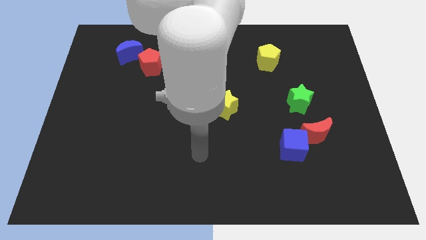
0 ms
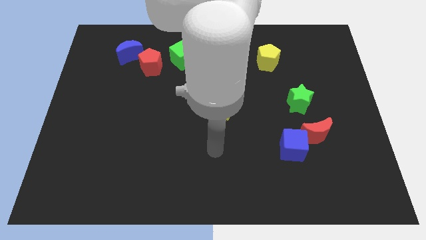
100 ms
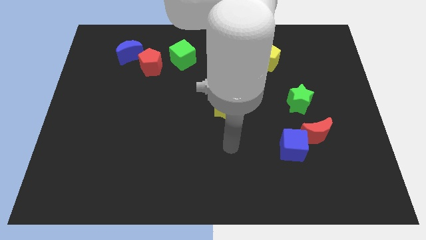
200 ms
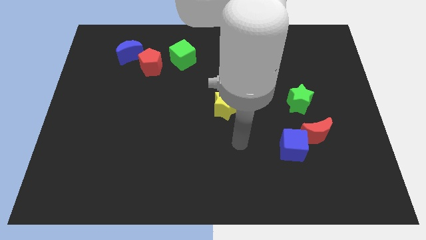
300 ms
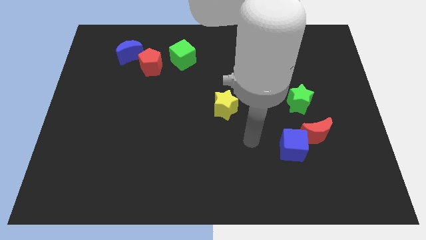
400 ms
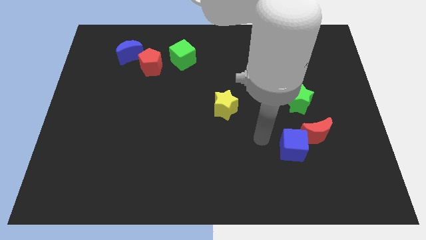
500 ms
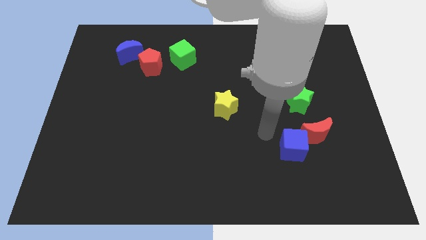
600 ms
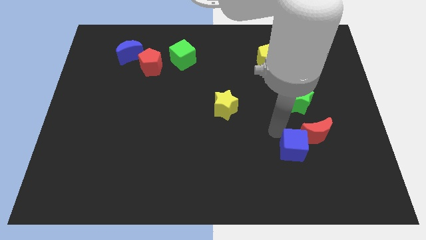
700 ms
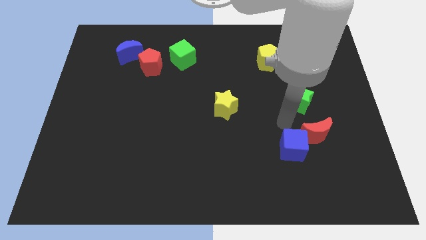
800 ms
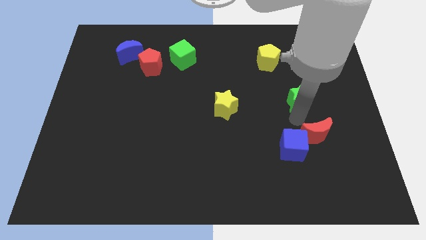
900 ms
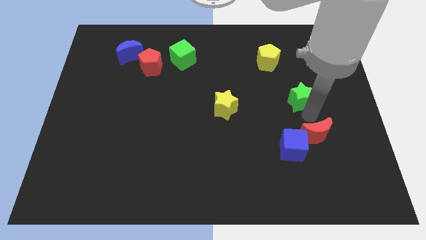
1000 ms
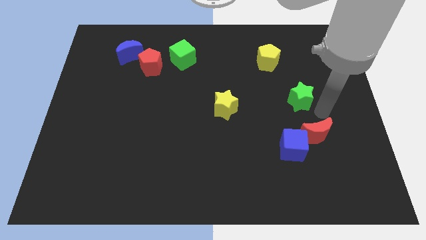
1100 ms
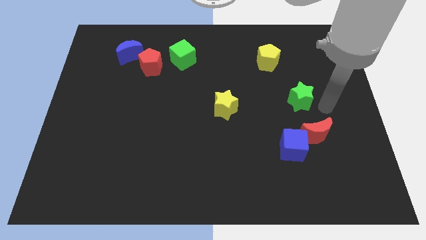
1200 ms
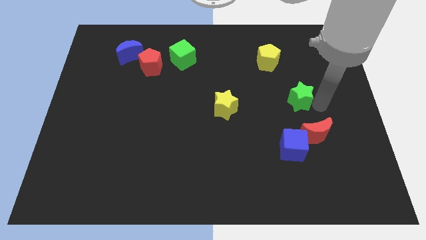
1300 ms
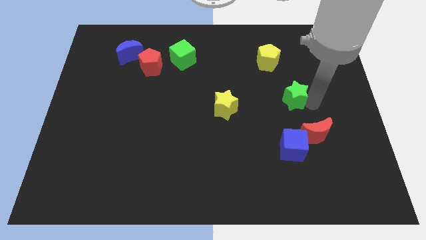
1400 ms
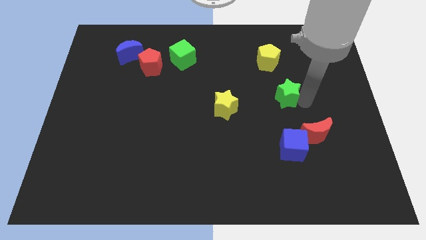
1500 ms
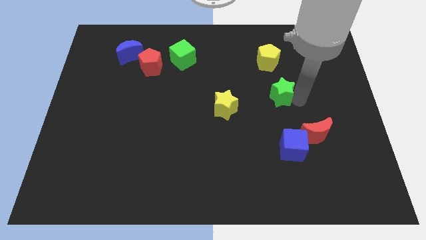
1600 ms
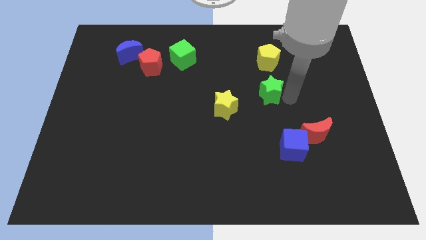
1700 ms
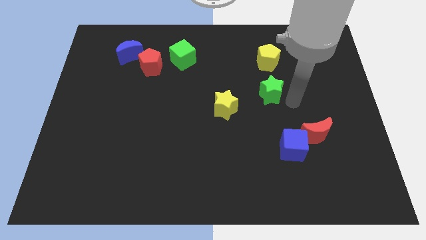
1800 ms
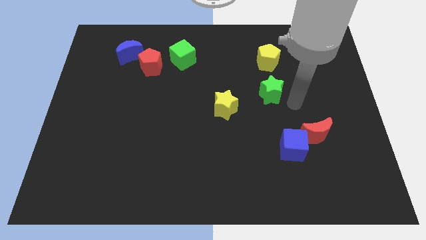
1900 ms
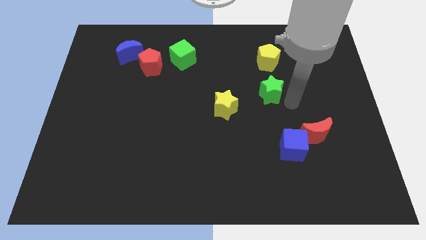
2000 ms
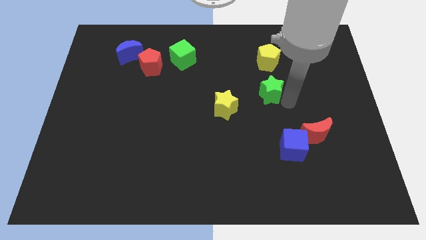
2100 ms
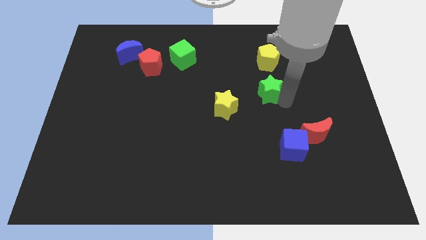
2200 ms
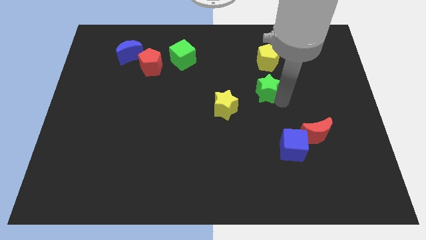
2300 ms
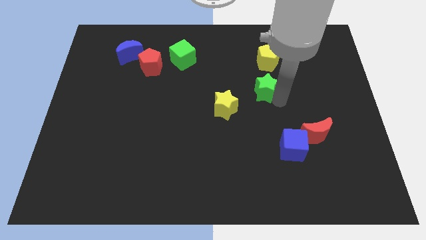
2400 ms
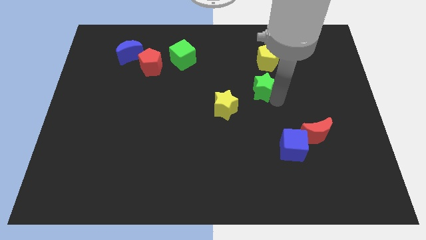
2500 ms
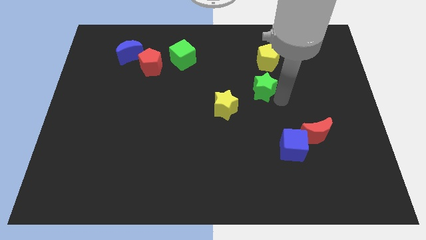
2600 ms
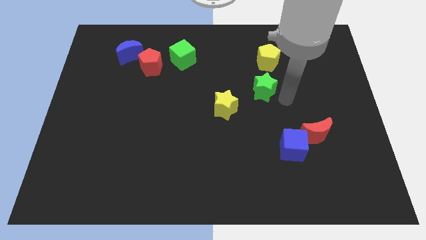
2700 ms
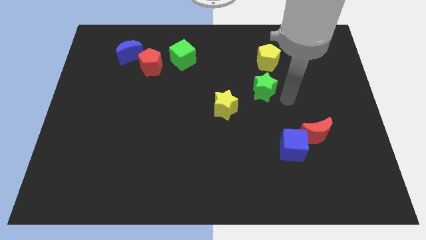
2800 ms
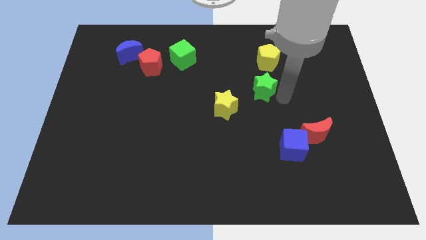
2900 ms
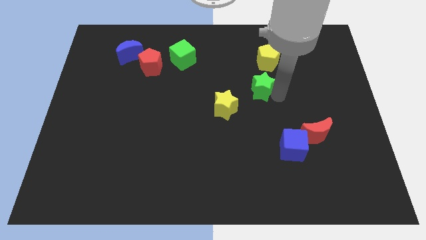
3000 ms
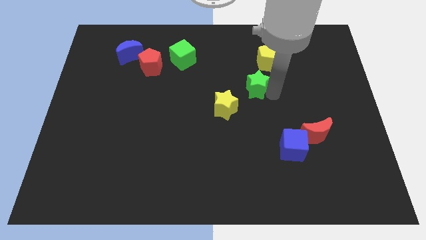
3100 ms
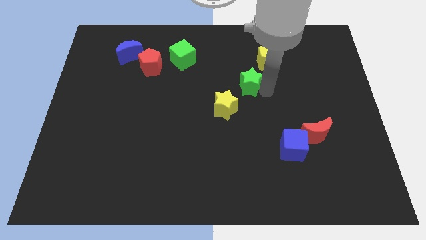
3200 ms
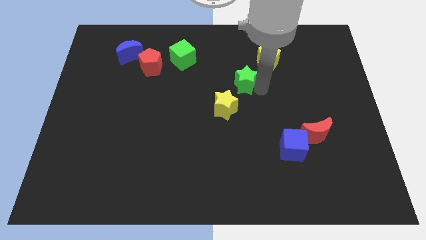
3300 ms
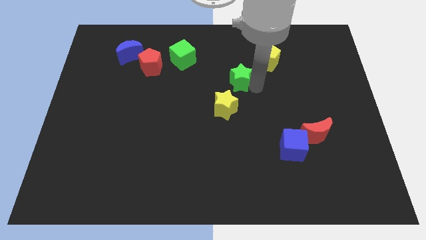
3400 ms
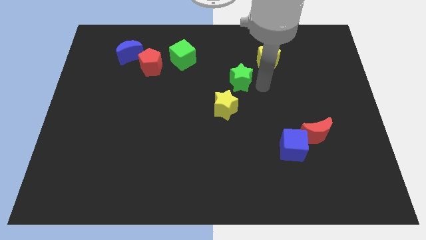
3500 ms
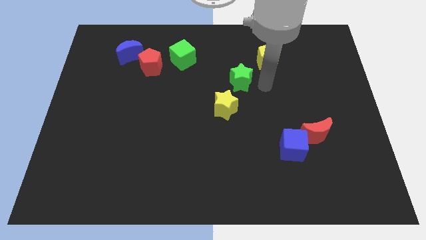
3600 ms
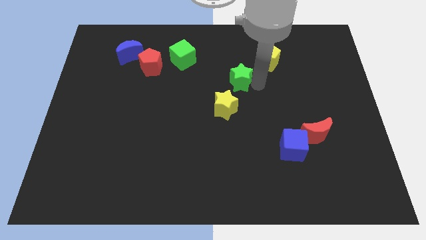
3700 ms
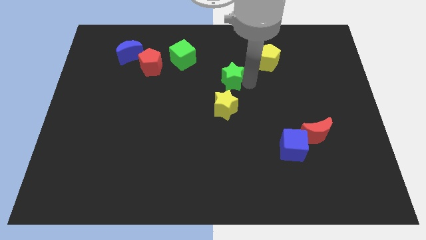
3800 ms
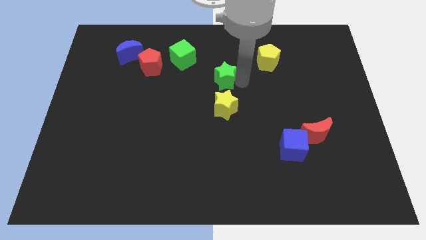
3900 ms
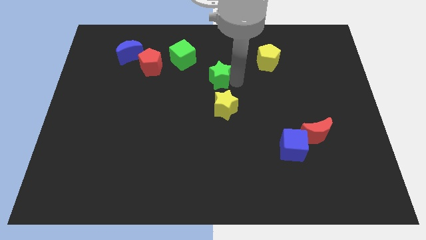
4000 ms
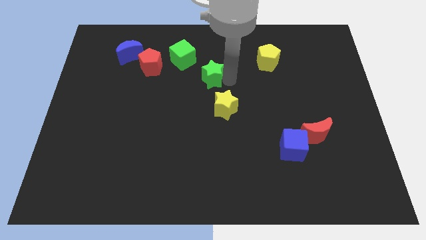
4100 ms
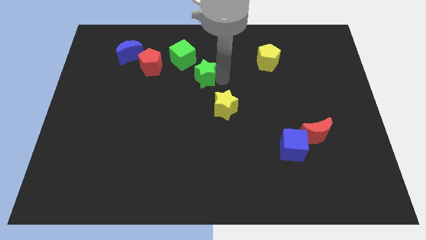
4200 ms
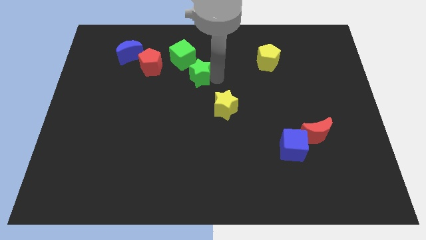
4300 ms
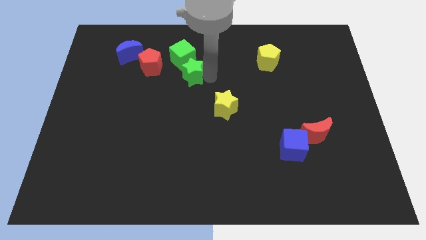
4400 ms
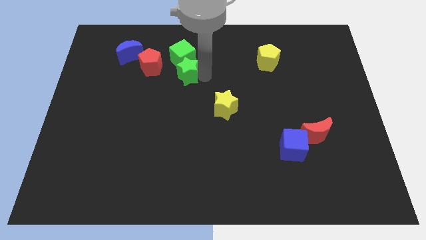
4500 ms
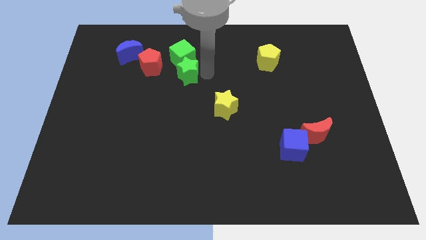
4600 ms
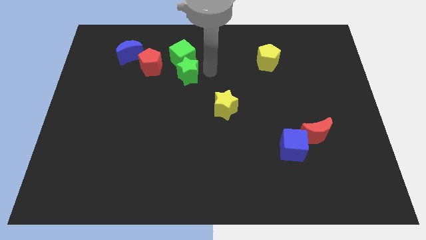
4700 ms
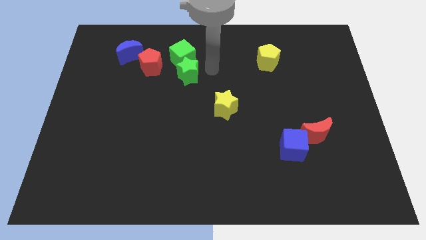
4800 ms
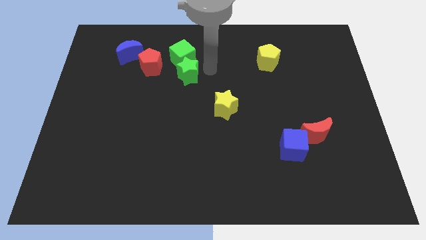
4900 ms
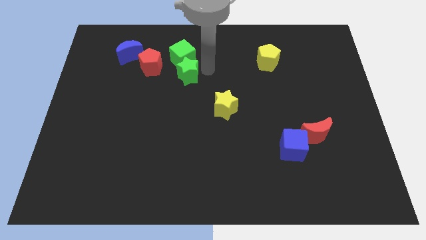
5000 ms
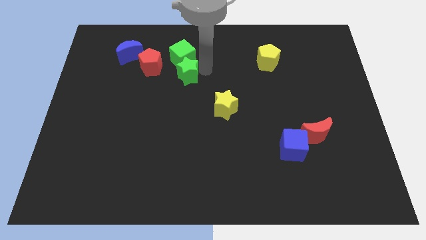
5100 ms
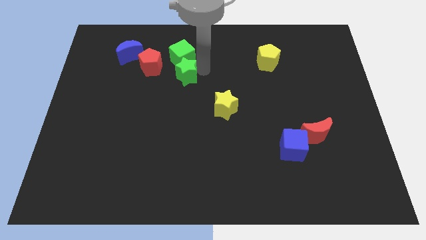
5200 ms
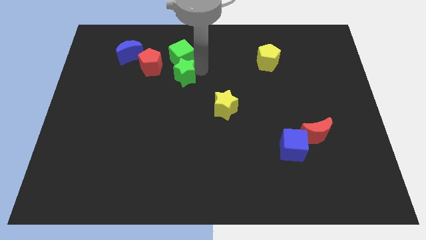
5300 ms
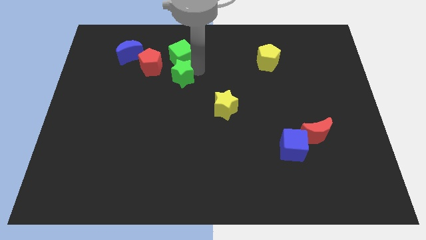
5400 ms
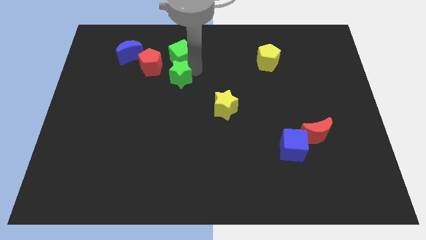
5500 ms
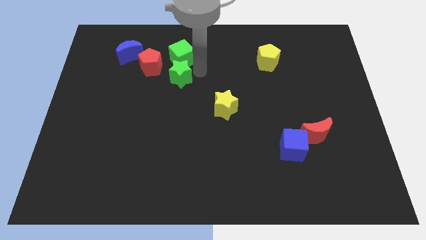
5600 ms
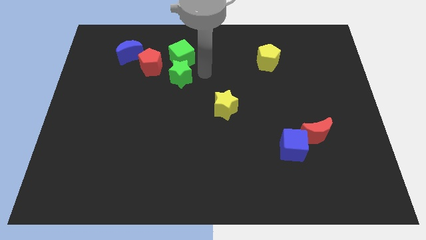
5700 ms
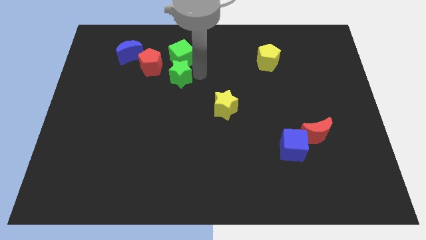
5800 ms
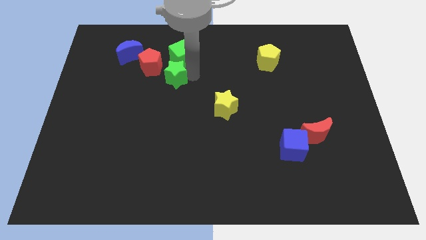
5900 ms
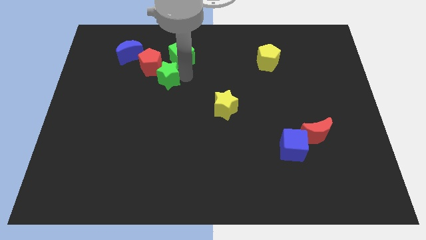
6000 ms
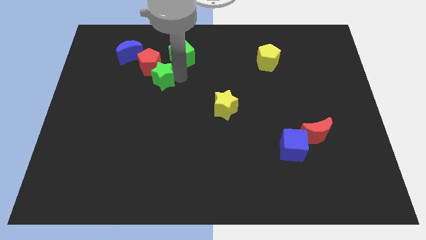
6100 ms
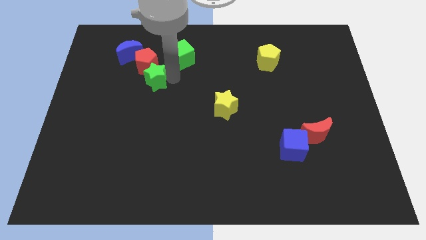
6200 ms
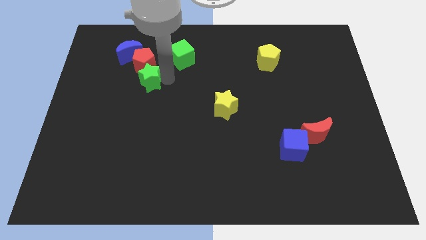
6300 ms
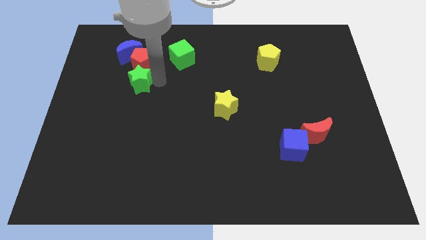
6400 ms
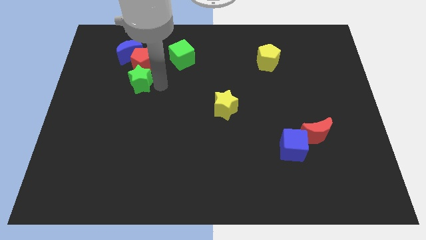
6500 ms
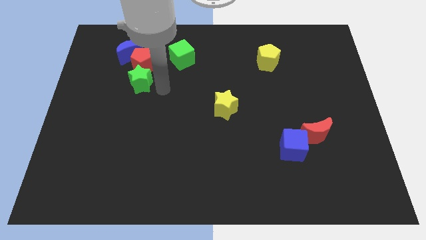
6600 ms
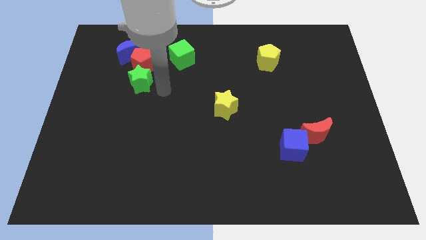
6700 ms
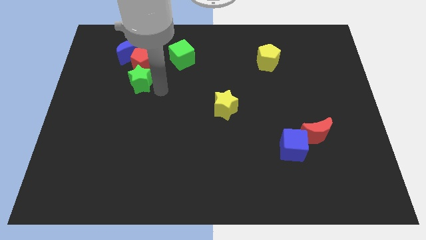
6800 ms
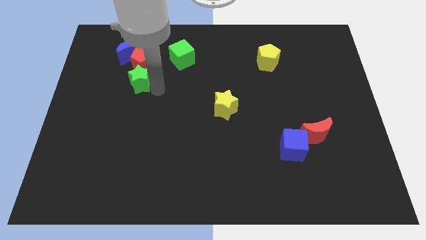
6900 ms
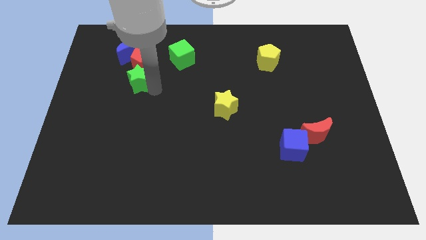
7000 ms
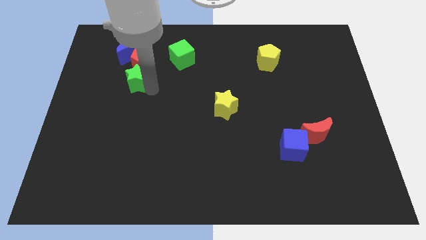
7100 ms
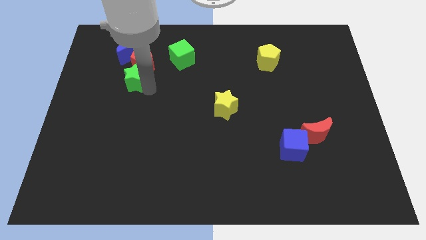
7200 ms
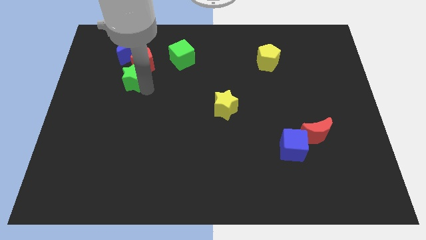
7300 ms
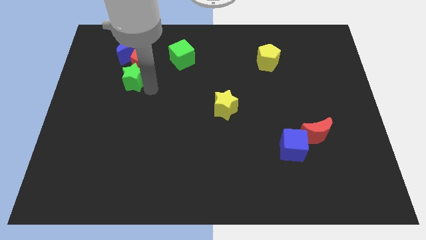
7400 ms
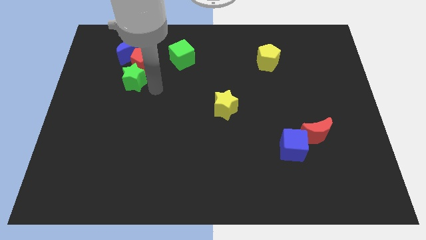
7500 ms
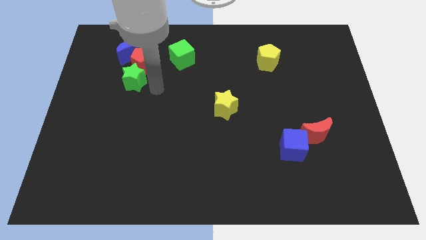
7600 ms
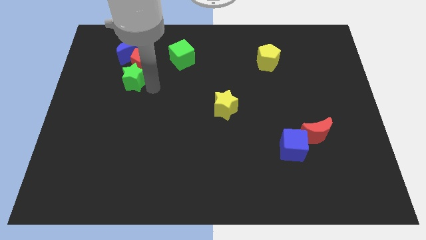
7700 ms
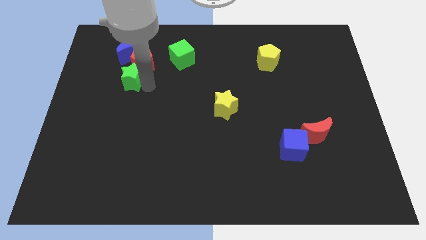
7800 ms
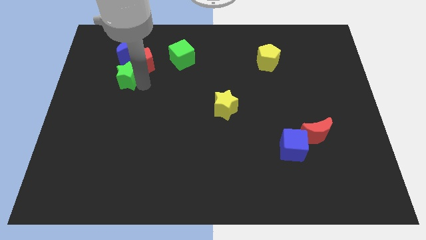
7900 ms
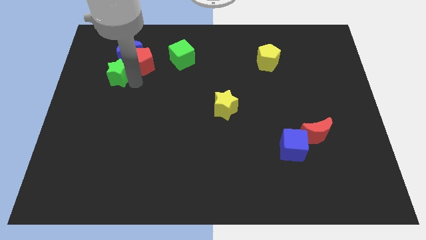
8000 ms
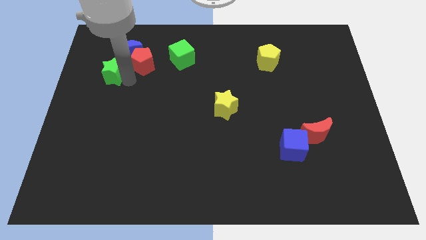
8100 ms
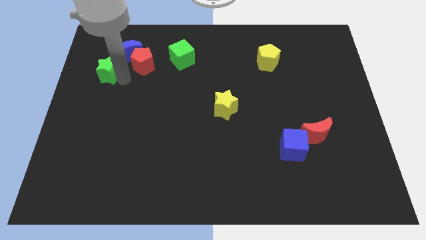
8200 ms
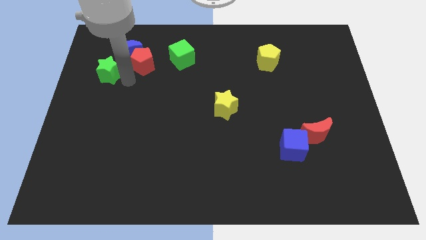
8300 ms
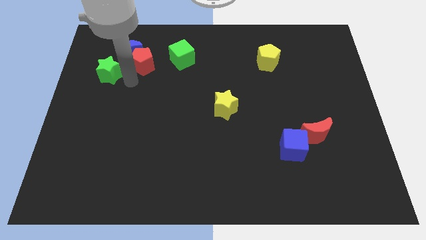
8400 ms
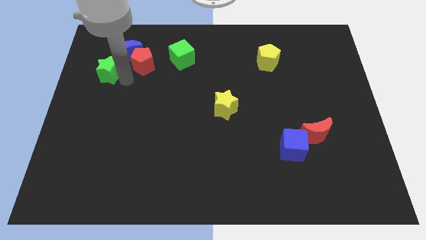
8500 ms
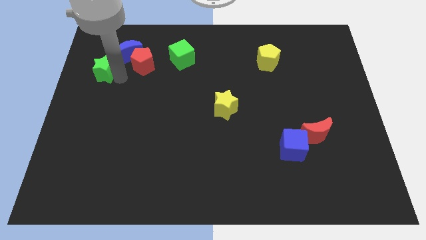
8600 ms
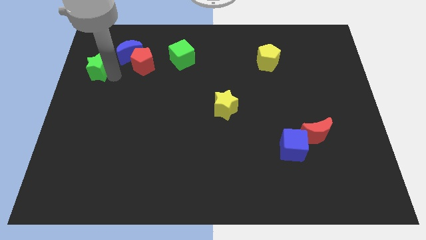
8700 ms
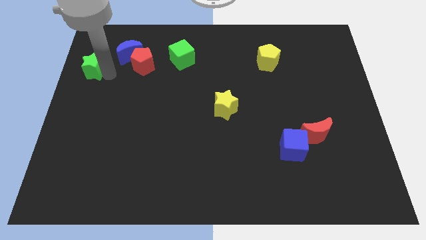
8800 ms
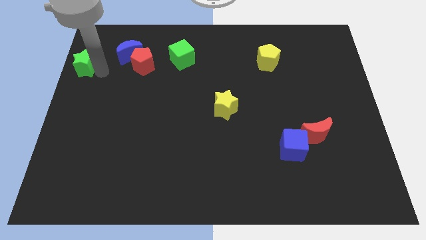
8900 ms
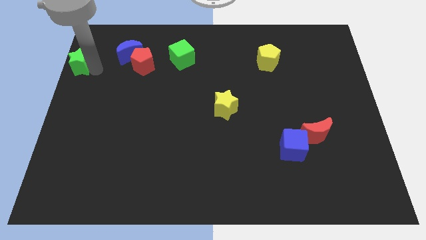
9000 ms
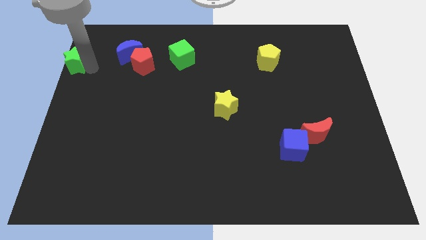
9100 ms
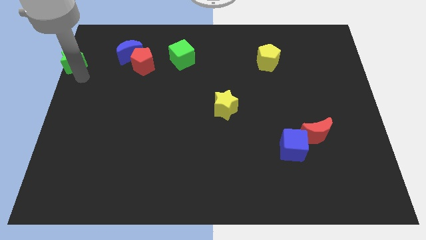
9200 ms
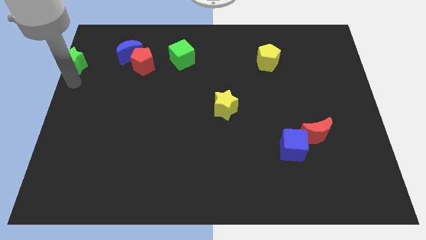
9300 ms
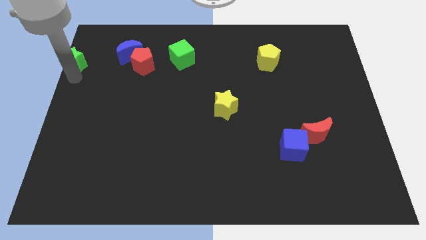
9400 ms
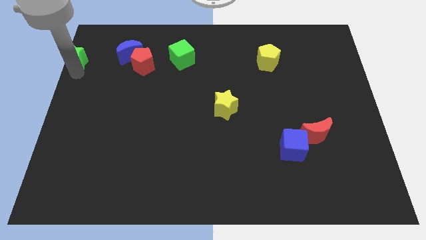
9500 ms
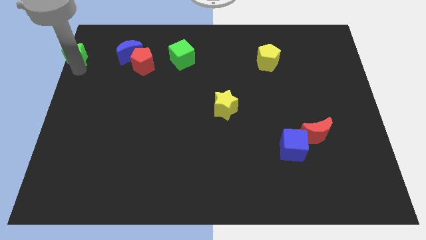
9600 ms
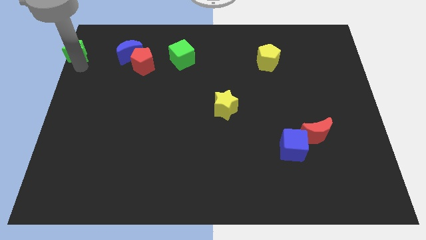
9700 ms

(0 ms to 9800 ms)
slide the green star to the top left of the board
